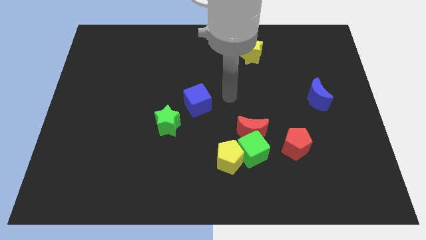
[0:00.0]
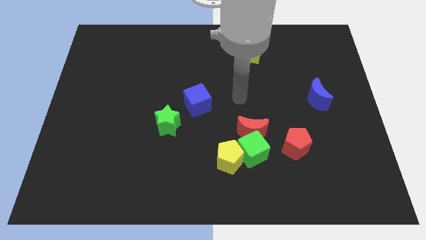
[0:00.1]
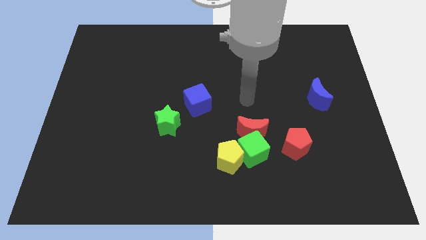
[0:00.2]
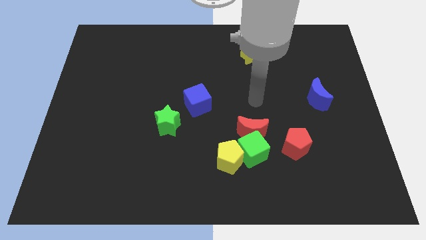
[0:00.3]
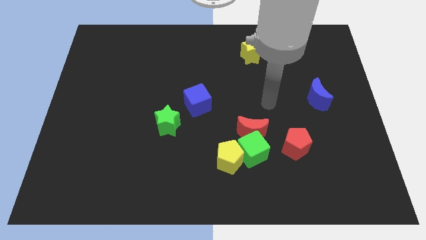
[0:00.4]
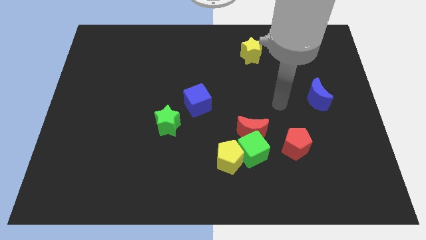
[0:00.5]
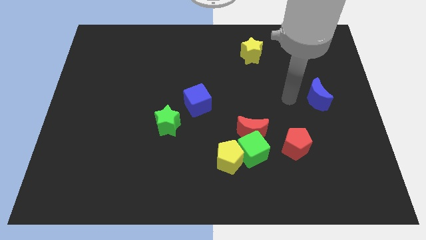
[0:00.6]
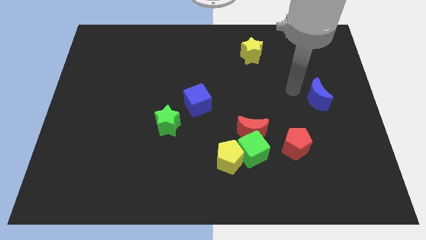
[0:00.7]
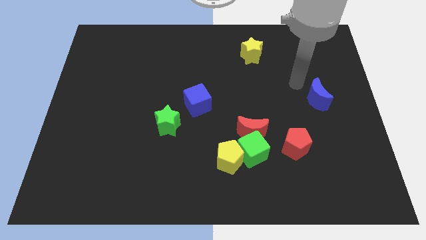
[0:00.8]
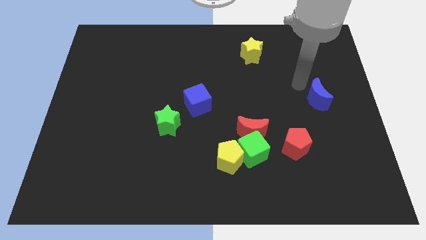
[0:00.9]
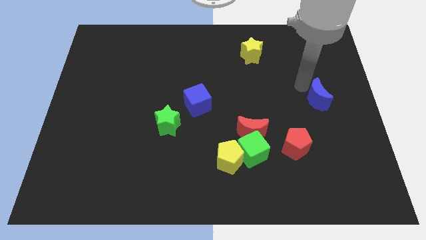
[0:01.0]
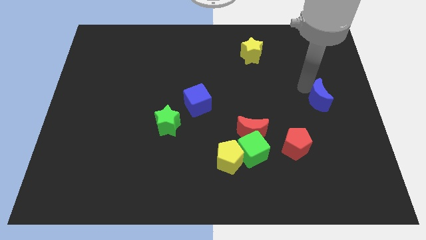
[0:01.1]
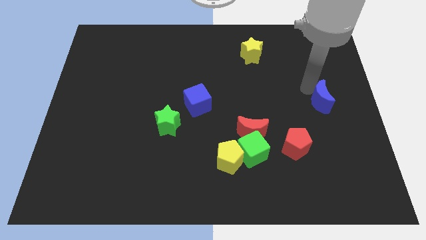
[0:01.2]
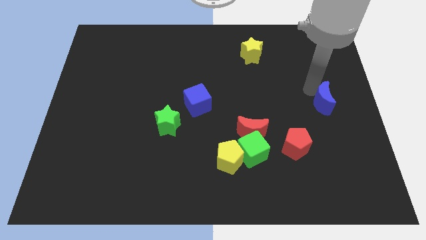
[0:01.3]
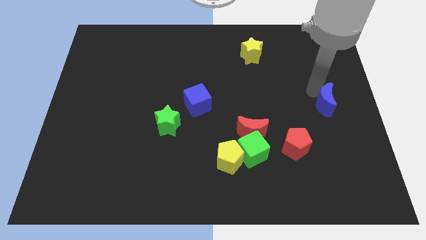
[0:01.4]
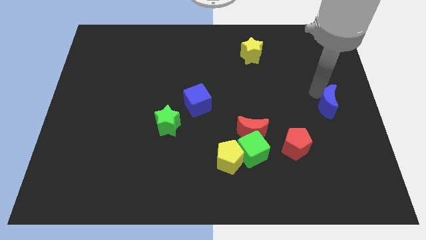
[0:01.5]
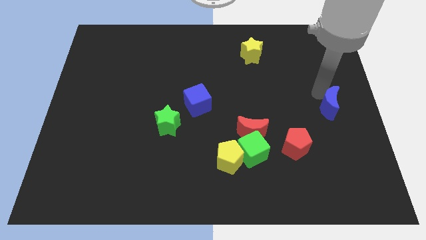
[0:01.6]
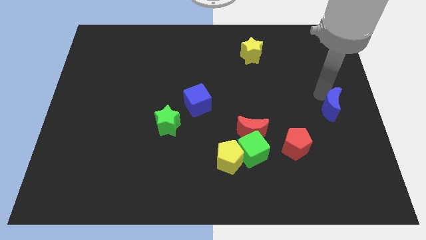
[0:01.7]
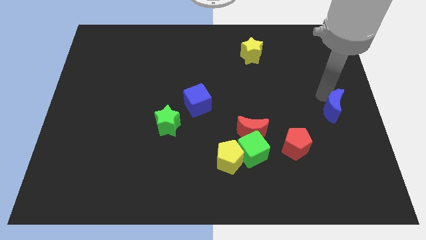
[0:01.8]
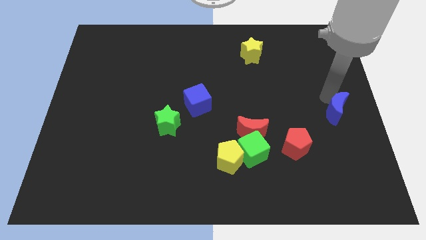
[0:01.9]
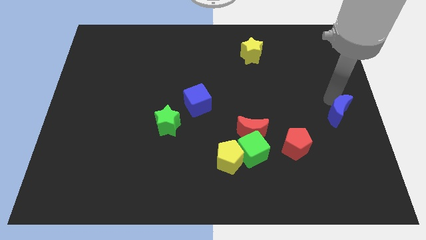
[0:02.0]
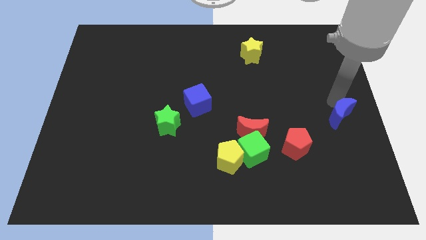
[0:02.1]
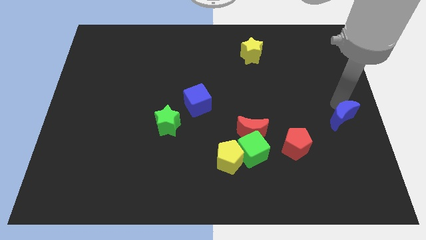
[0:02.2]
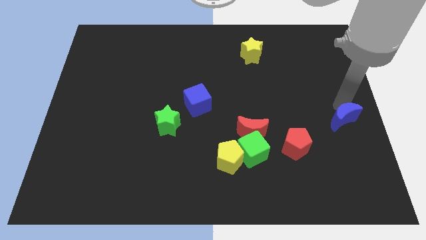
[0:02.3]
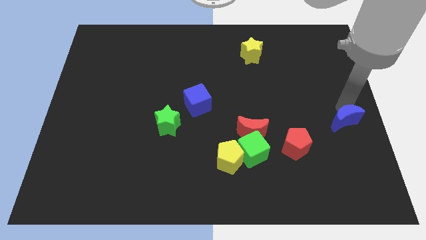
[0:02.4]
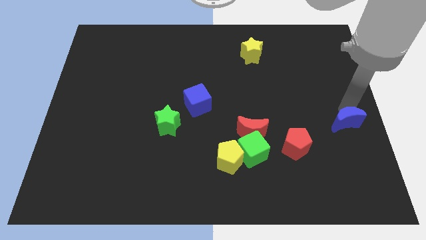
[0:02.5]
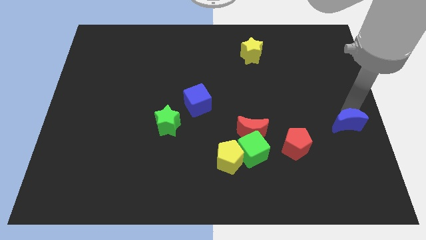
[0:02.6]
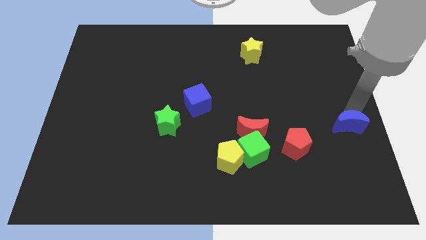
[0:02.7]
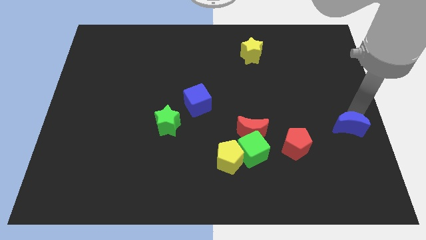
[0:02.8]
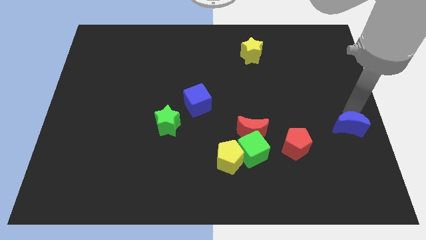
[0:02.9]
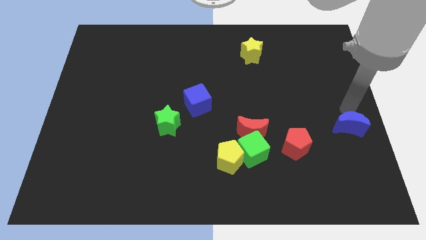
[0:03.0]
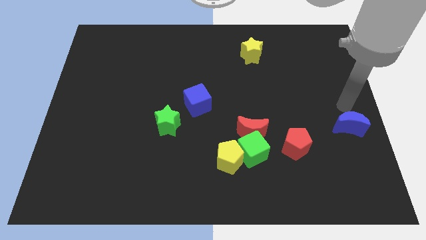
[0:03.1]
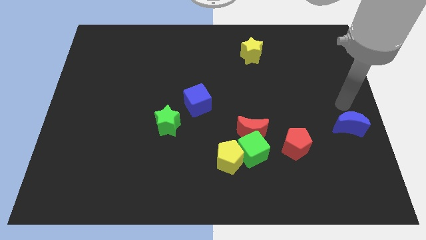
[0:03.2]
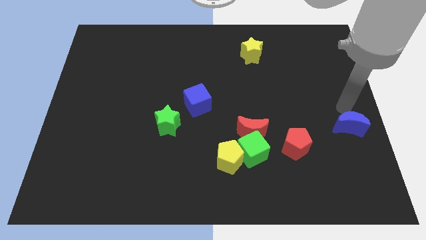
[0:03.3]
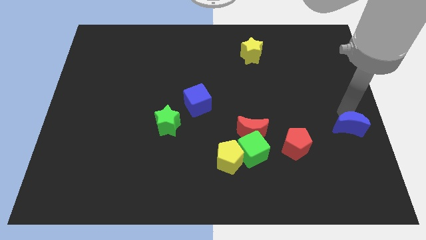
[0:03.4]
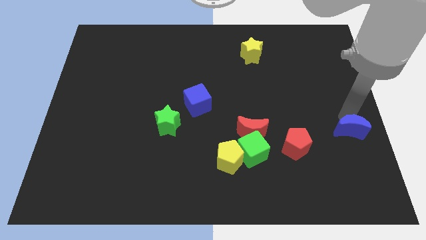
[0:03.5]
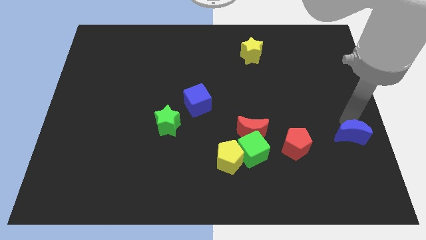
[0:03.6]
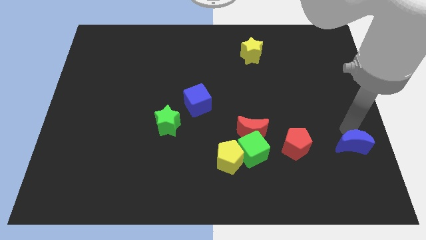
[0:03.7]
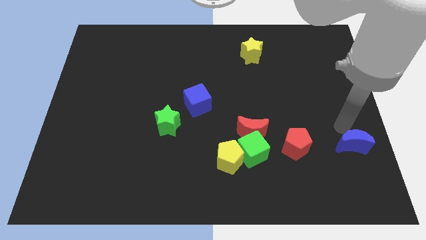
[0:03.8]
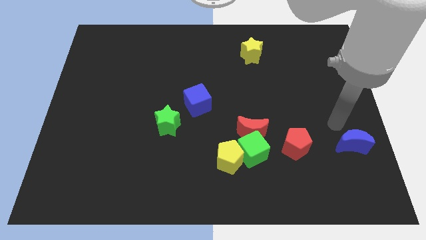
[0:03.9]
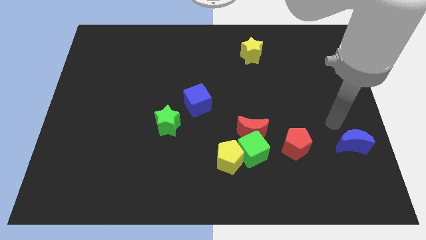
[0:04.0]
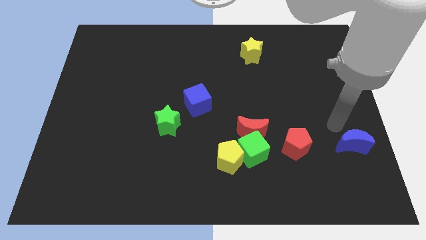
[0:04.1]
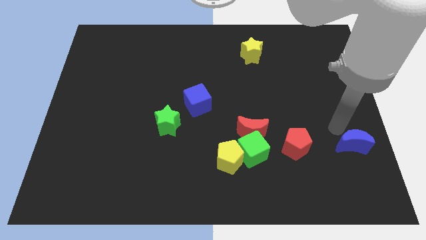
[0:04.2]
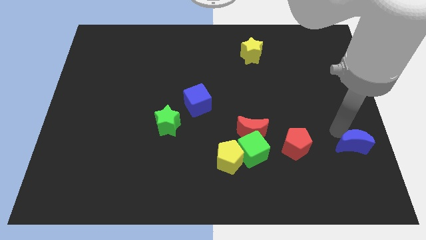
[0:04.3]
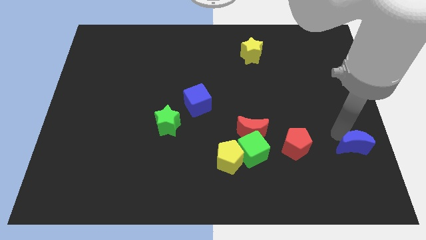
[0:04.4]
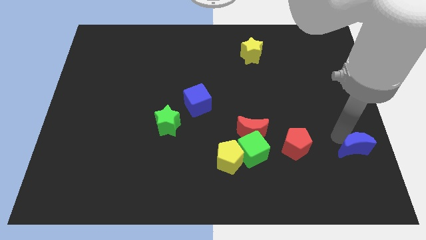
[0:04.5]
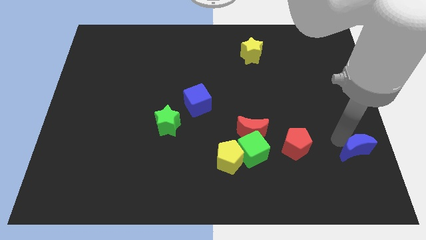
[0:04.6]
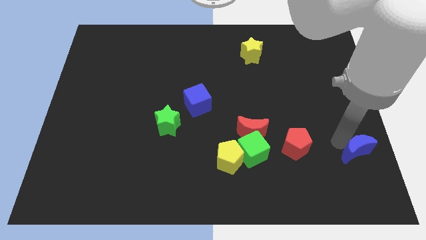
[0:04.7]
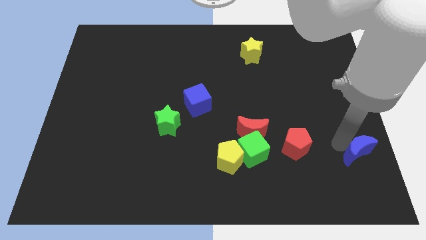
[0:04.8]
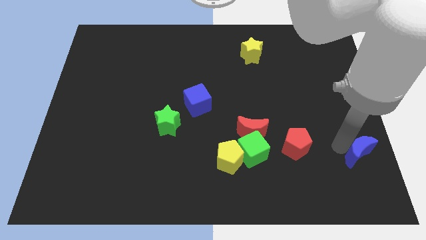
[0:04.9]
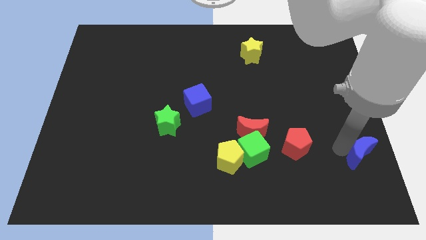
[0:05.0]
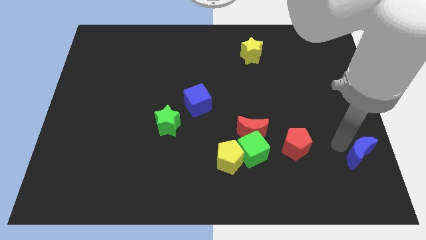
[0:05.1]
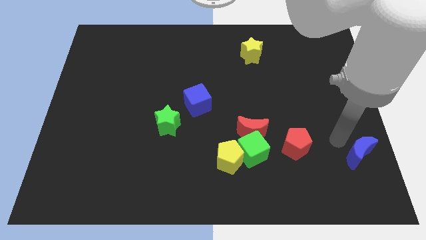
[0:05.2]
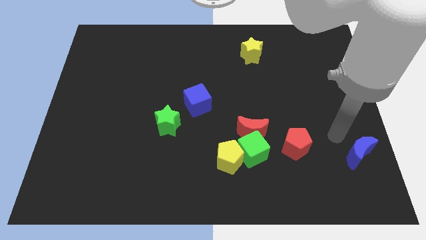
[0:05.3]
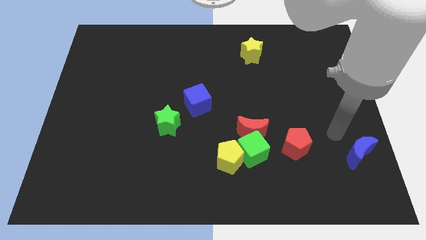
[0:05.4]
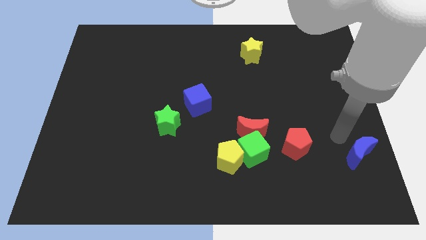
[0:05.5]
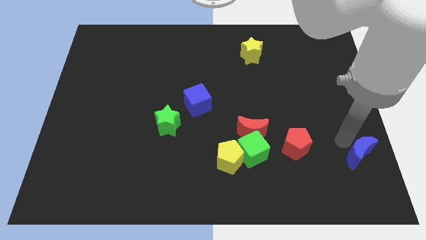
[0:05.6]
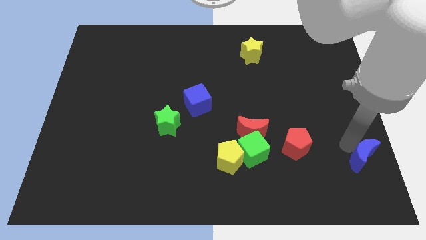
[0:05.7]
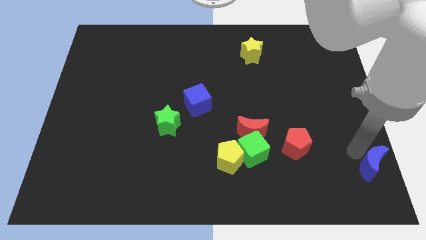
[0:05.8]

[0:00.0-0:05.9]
slide the blue moon to the bottom right
